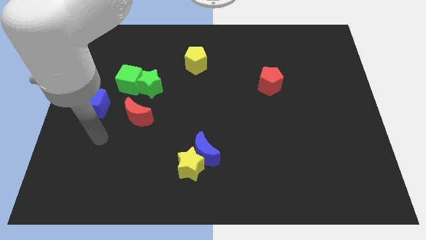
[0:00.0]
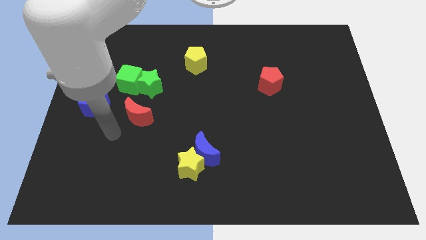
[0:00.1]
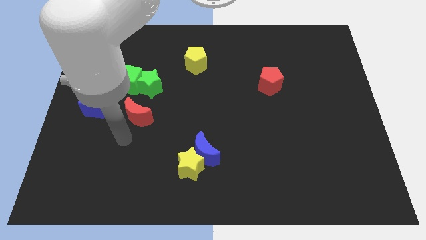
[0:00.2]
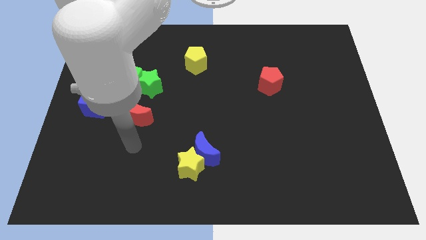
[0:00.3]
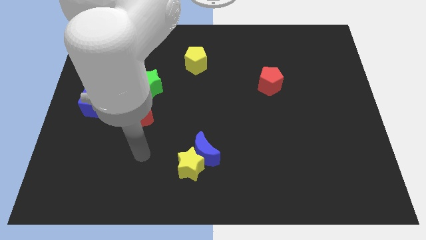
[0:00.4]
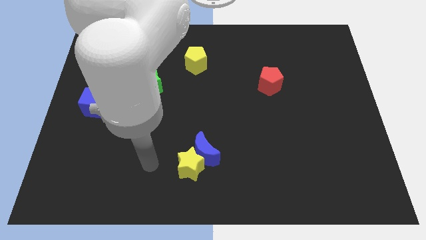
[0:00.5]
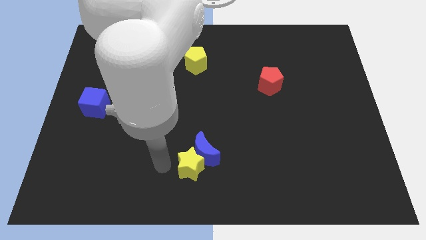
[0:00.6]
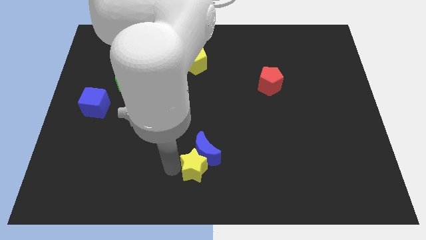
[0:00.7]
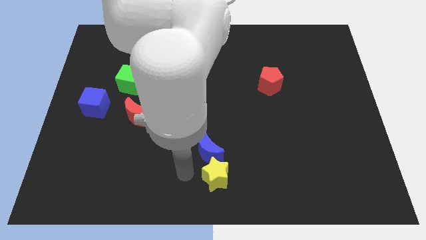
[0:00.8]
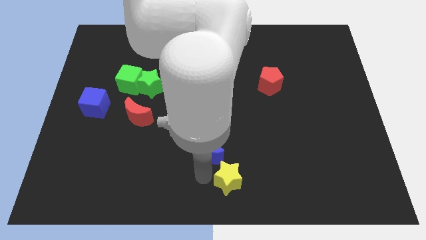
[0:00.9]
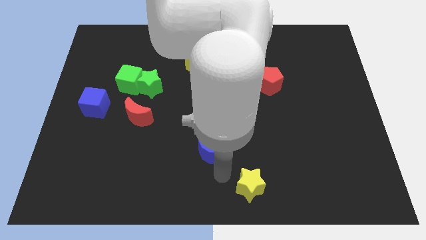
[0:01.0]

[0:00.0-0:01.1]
pull the blue moon apart from the yellow star

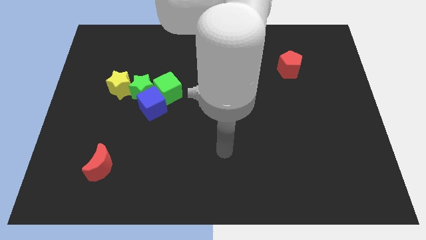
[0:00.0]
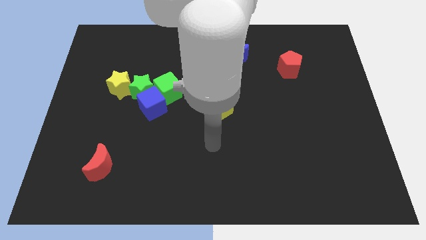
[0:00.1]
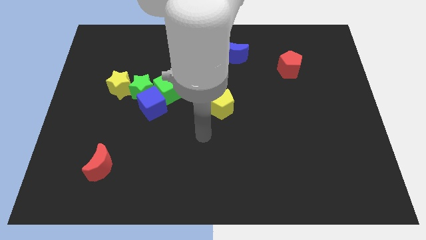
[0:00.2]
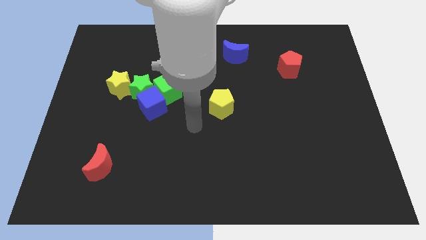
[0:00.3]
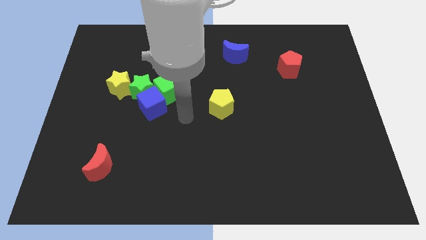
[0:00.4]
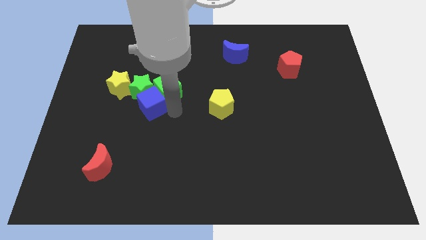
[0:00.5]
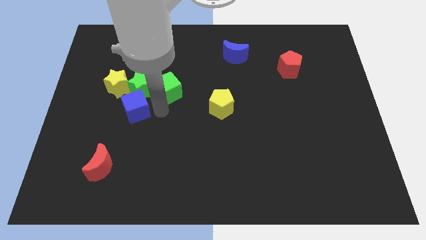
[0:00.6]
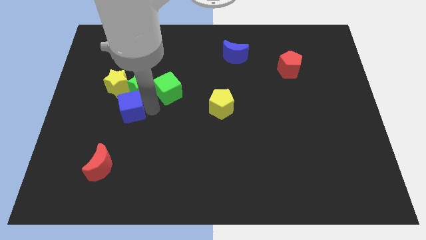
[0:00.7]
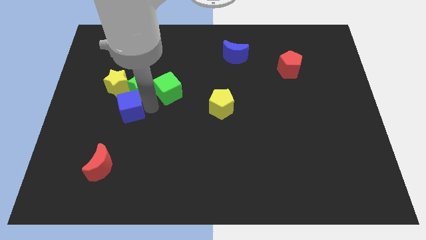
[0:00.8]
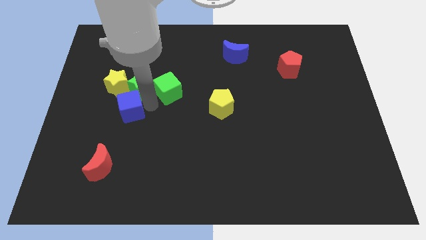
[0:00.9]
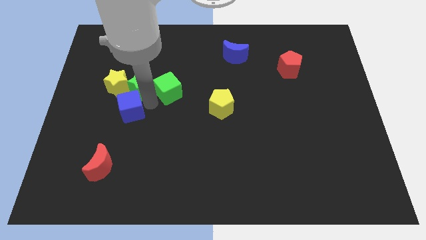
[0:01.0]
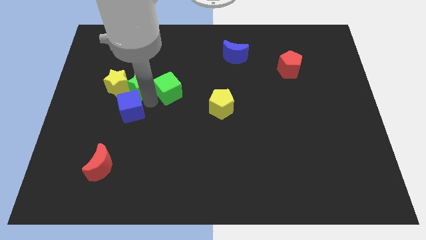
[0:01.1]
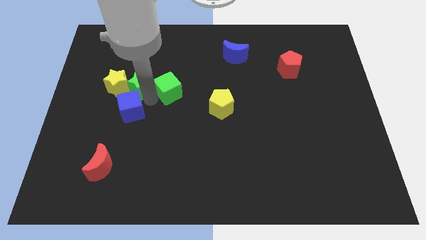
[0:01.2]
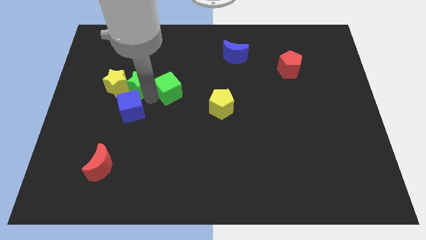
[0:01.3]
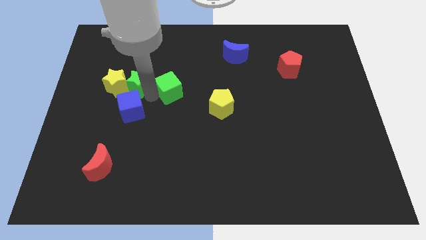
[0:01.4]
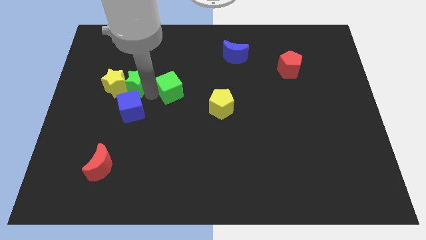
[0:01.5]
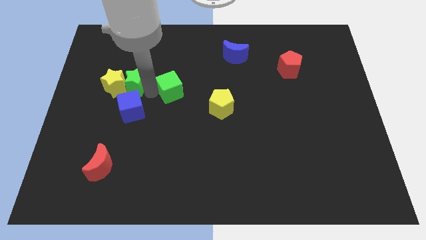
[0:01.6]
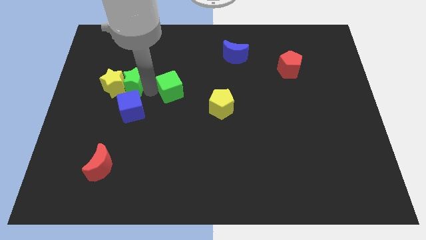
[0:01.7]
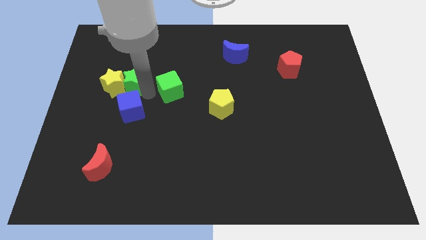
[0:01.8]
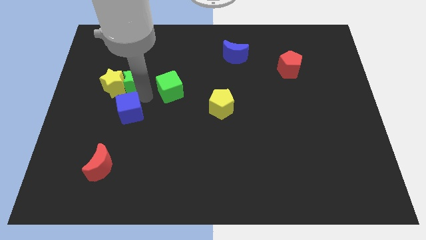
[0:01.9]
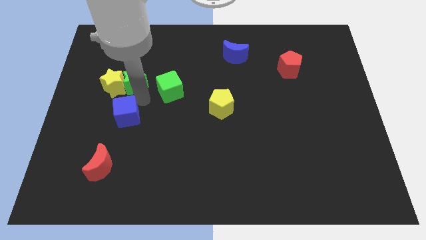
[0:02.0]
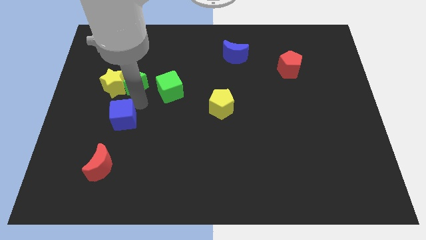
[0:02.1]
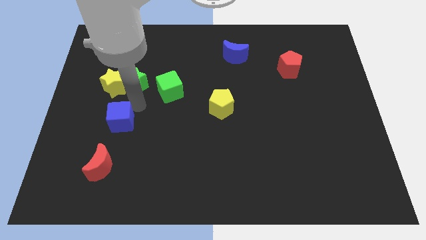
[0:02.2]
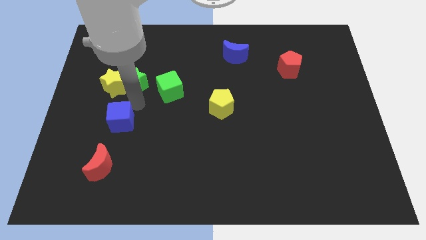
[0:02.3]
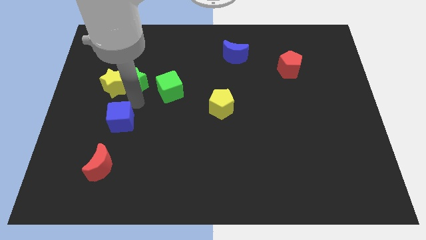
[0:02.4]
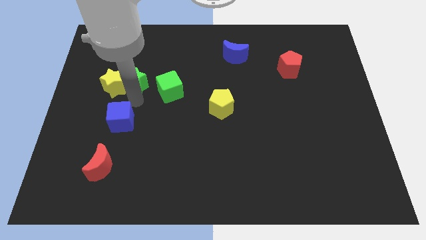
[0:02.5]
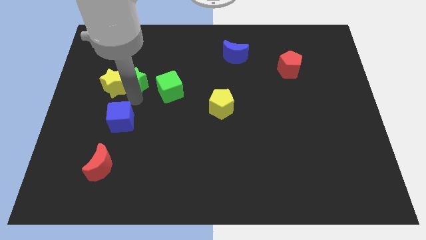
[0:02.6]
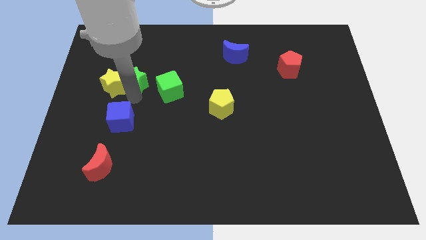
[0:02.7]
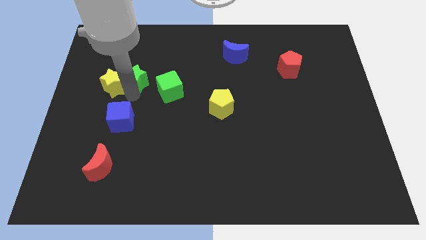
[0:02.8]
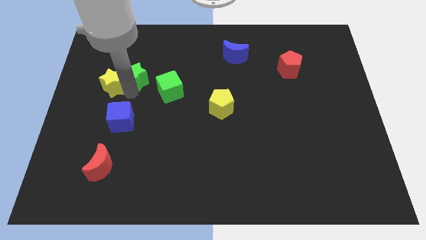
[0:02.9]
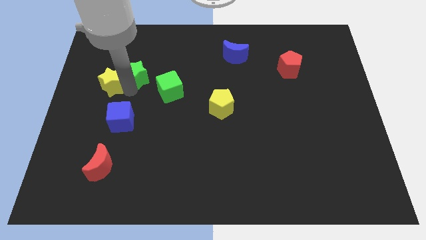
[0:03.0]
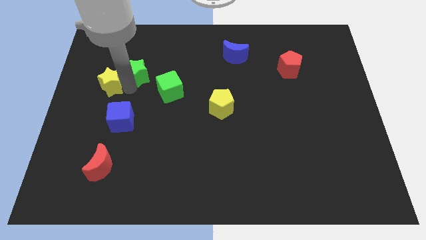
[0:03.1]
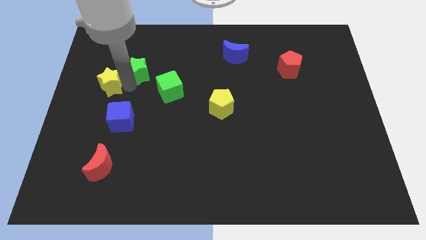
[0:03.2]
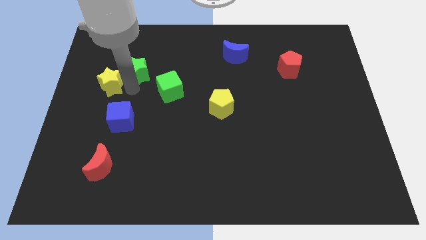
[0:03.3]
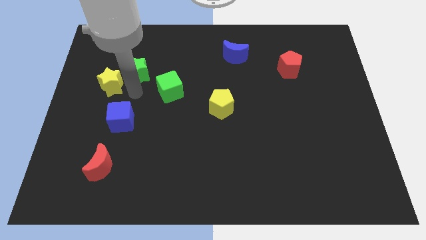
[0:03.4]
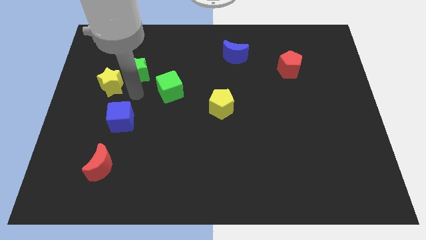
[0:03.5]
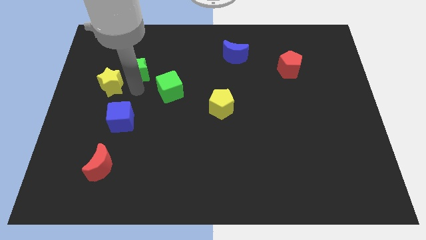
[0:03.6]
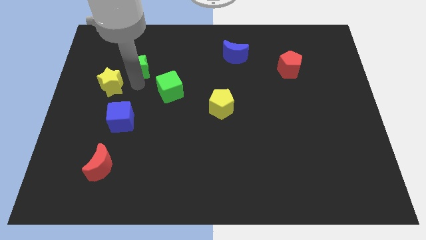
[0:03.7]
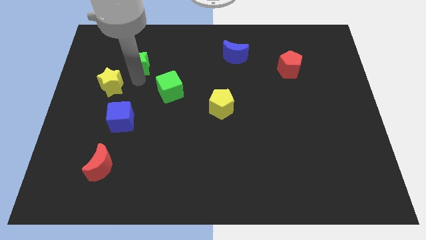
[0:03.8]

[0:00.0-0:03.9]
separate the green star from the blue cube, yellow star, and green cube

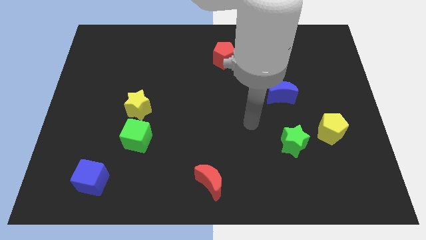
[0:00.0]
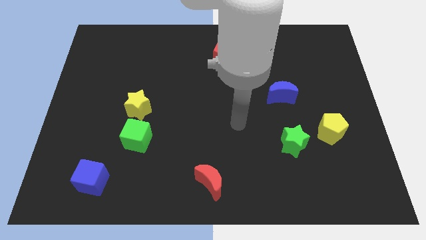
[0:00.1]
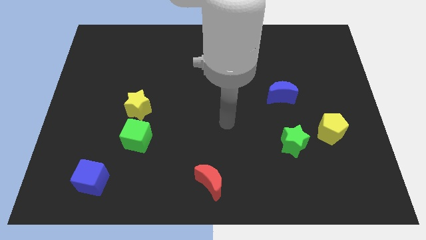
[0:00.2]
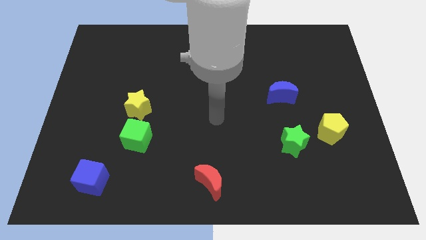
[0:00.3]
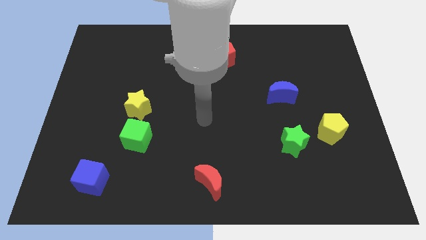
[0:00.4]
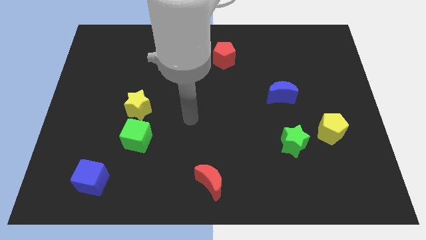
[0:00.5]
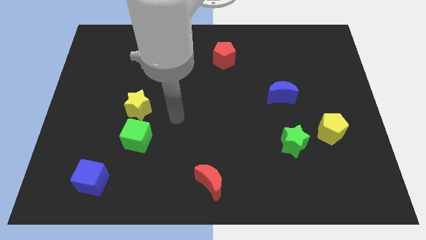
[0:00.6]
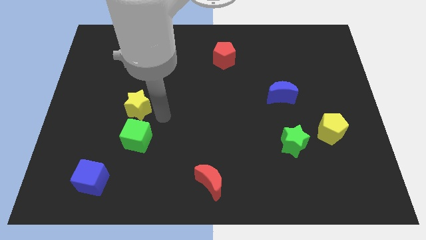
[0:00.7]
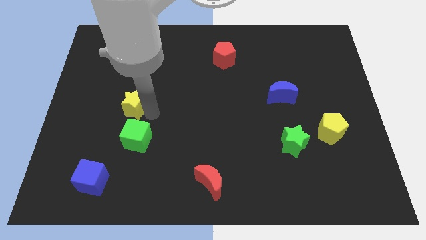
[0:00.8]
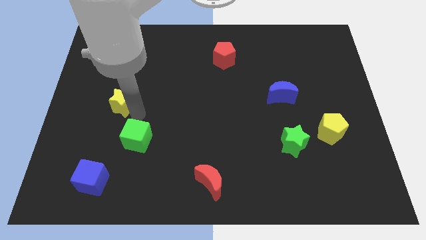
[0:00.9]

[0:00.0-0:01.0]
pull the green cube apart from the yellow star

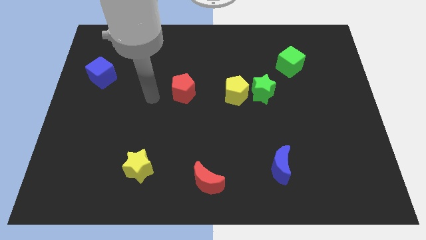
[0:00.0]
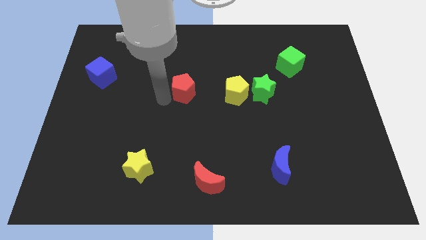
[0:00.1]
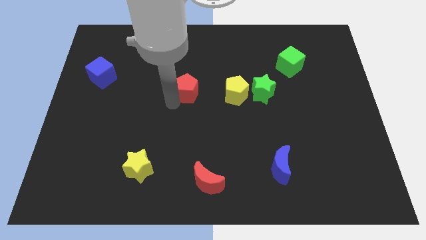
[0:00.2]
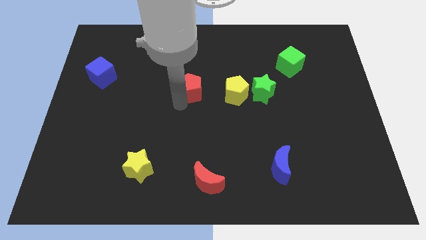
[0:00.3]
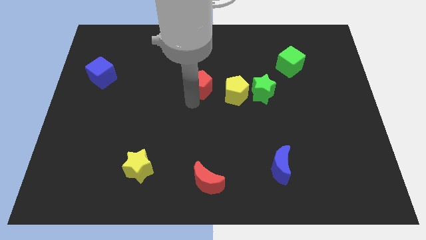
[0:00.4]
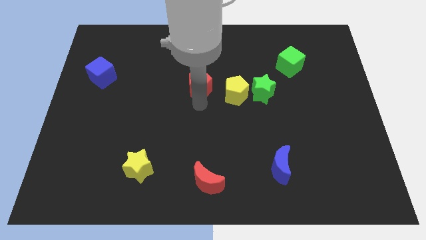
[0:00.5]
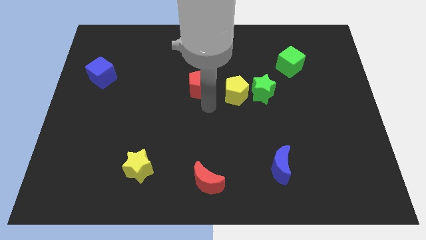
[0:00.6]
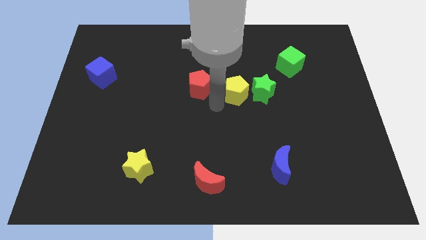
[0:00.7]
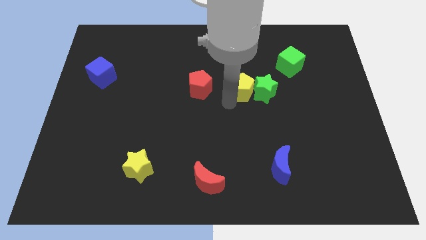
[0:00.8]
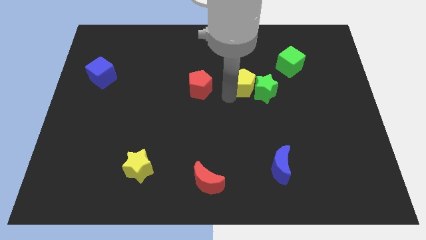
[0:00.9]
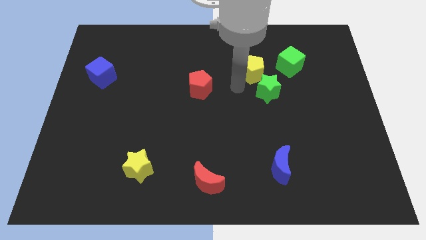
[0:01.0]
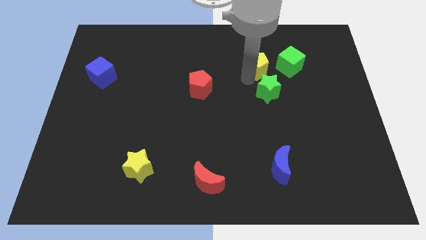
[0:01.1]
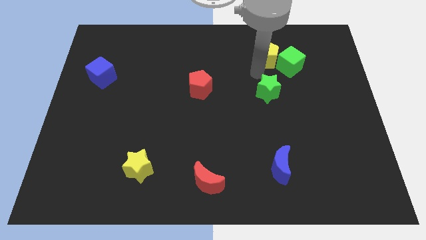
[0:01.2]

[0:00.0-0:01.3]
move the green star away from the yellow pentagon

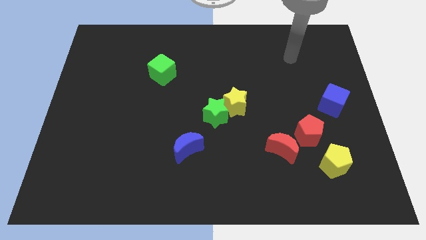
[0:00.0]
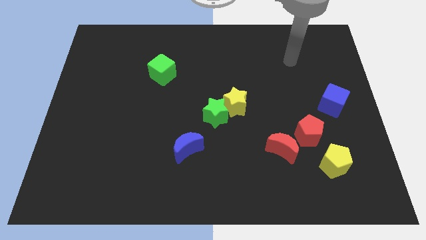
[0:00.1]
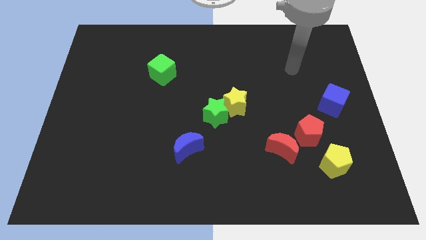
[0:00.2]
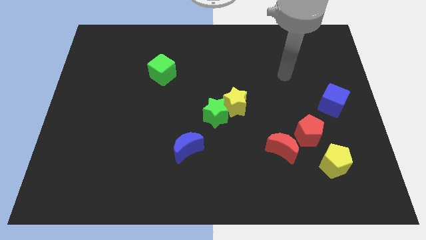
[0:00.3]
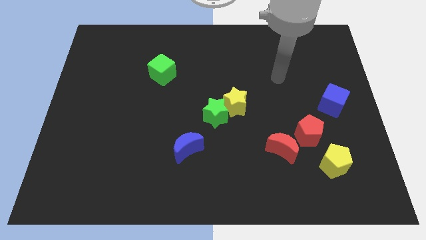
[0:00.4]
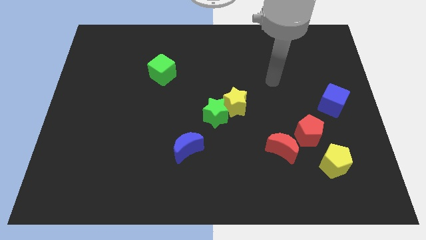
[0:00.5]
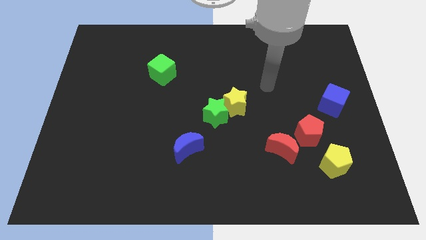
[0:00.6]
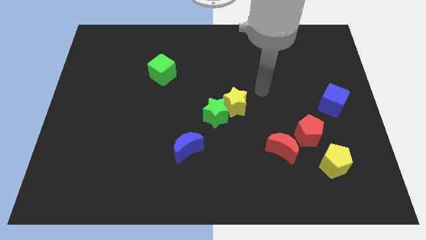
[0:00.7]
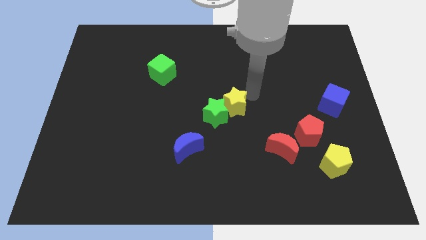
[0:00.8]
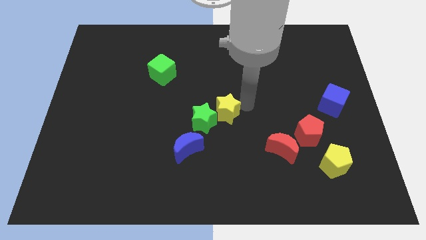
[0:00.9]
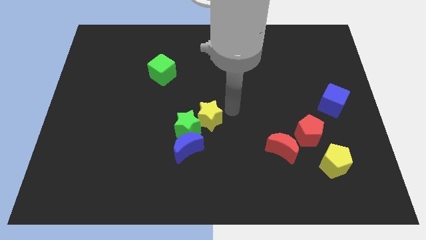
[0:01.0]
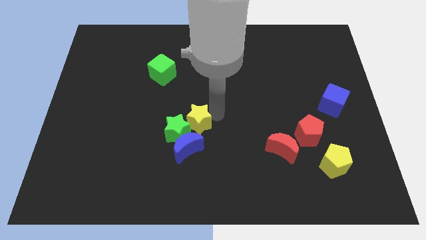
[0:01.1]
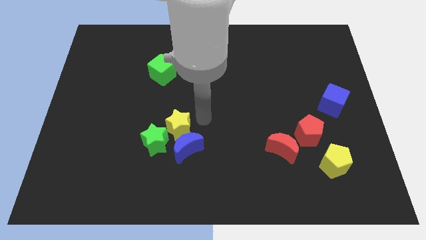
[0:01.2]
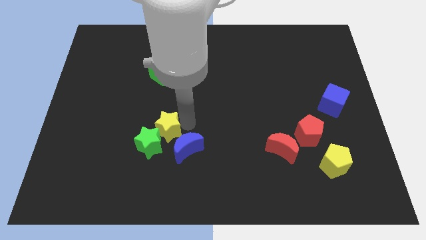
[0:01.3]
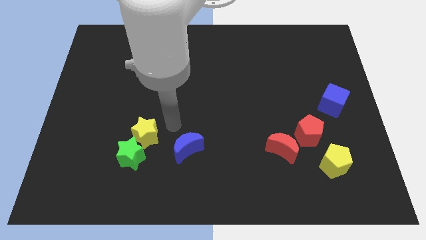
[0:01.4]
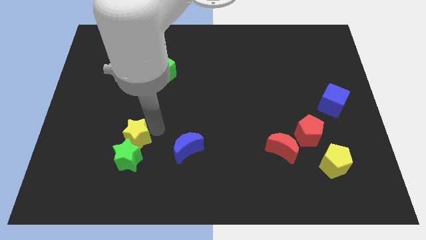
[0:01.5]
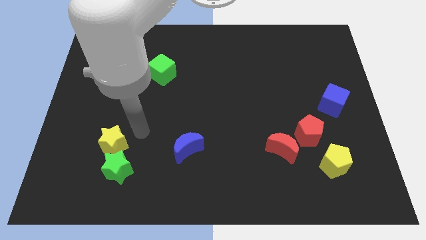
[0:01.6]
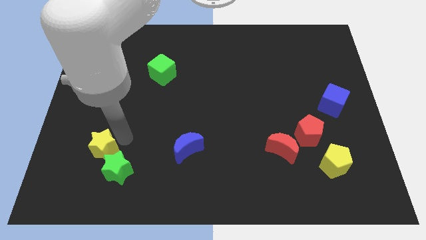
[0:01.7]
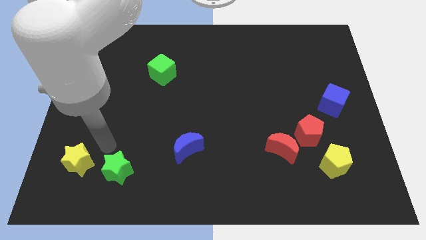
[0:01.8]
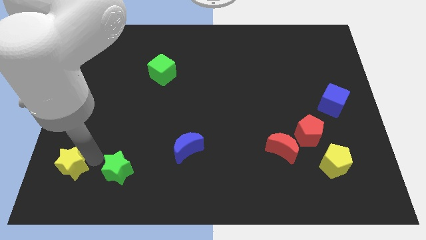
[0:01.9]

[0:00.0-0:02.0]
pull the green star apart from the yellow star

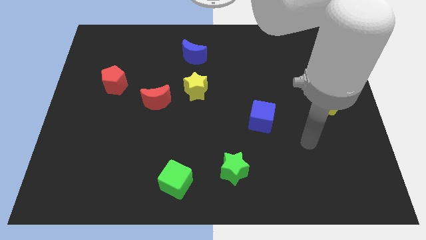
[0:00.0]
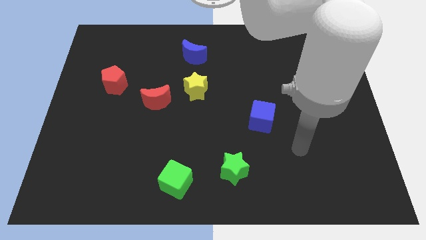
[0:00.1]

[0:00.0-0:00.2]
move the red moon away from the yellow star

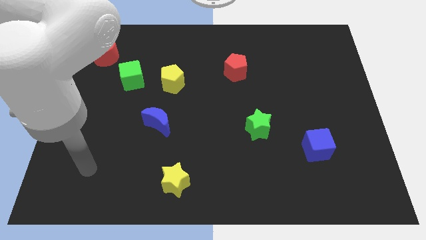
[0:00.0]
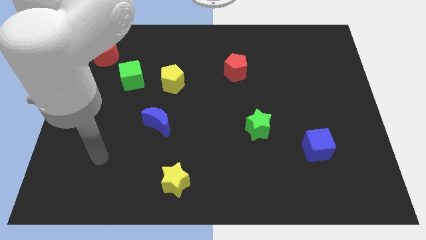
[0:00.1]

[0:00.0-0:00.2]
separate the green cube from the yellow pentagon
